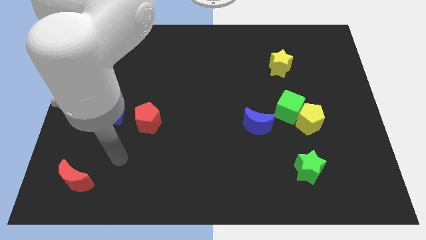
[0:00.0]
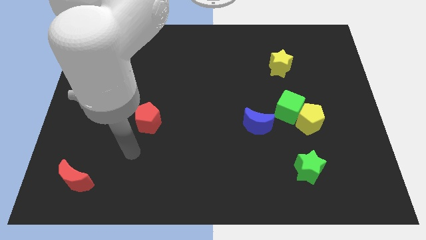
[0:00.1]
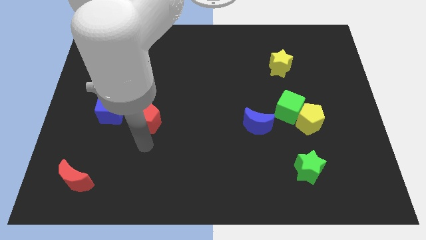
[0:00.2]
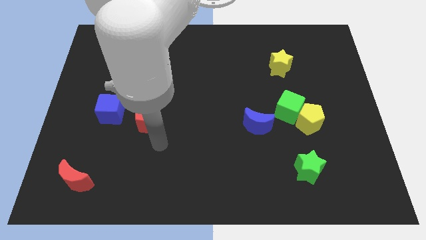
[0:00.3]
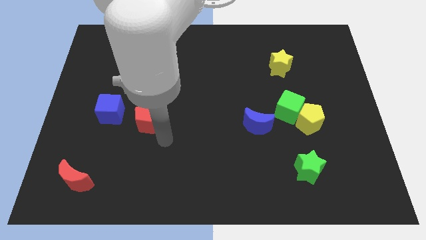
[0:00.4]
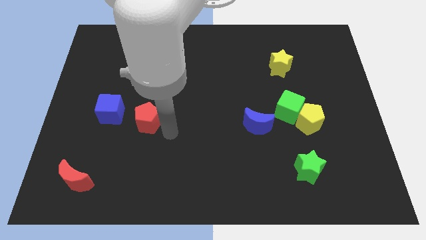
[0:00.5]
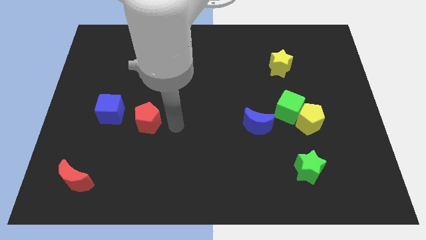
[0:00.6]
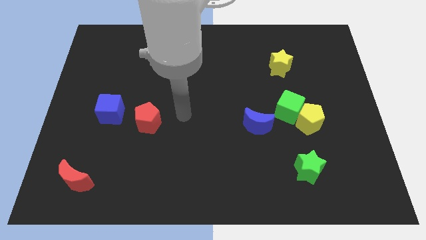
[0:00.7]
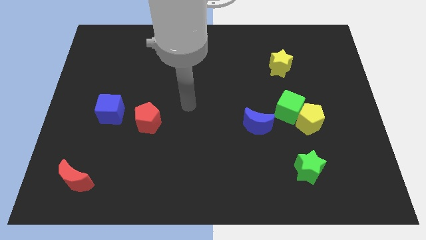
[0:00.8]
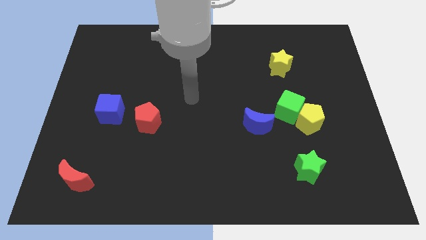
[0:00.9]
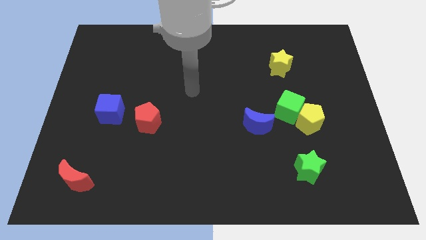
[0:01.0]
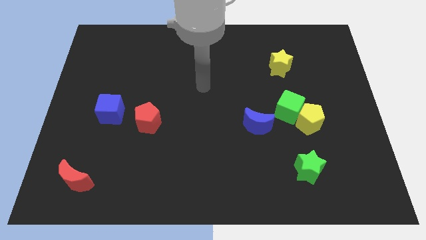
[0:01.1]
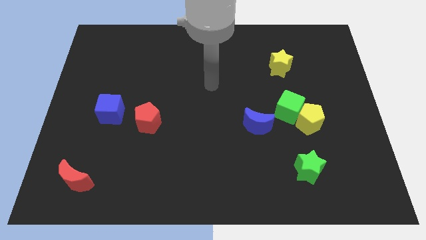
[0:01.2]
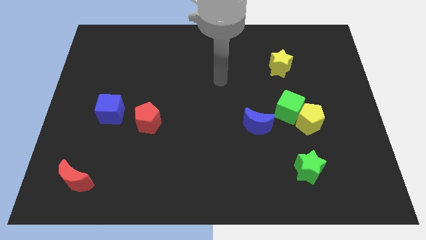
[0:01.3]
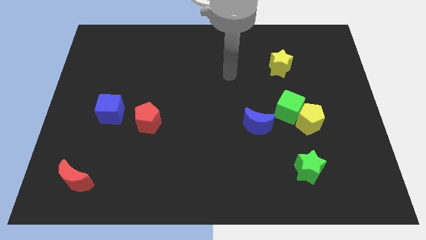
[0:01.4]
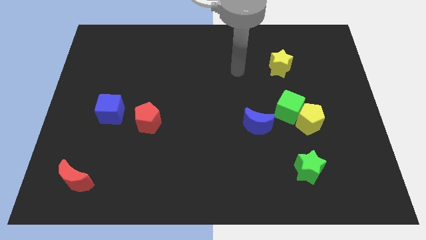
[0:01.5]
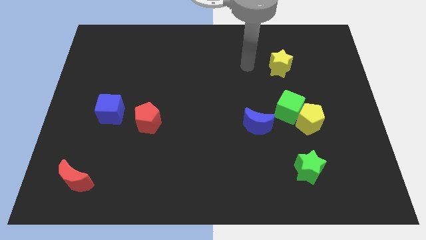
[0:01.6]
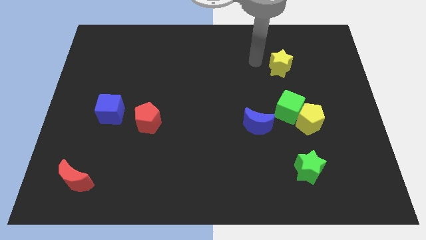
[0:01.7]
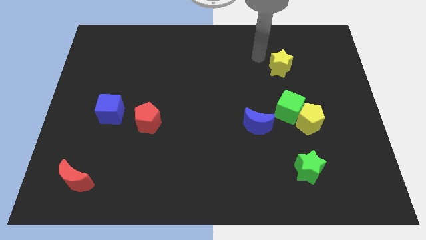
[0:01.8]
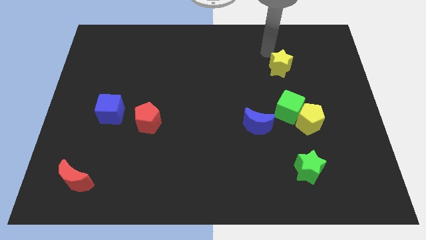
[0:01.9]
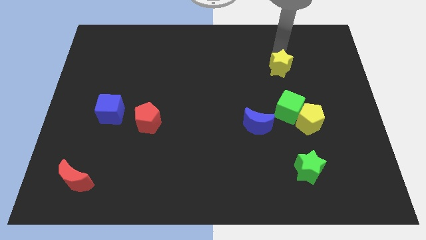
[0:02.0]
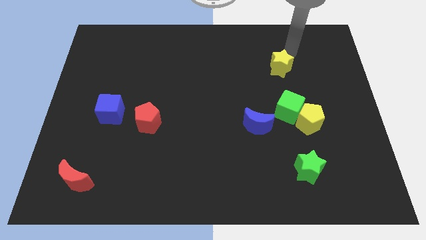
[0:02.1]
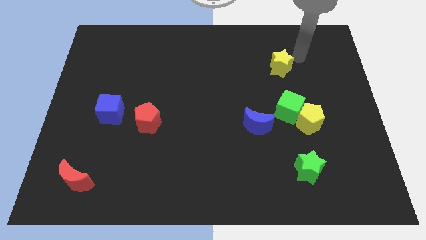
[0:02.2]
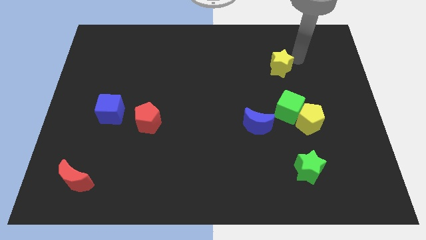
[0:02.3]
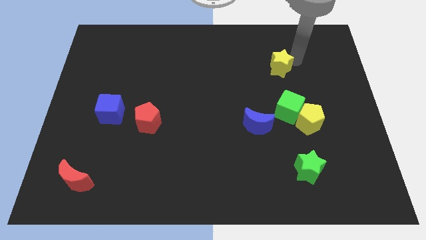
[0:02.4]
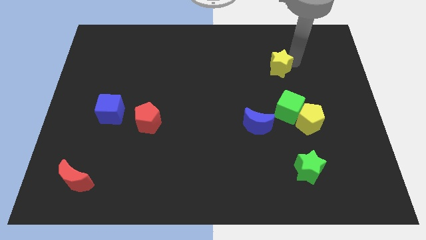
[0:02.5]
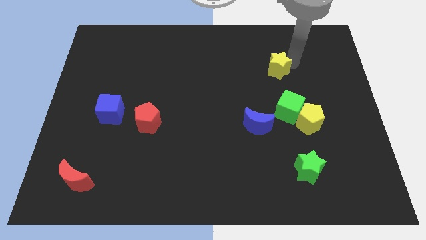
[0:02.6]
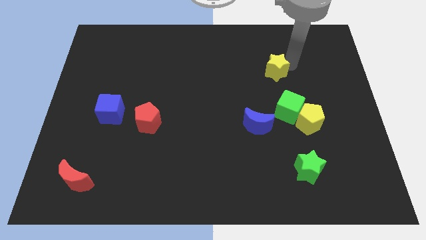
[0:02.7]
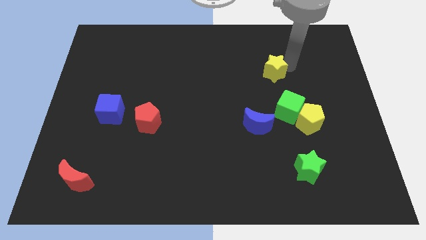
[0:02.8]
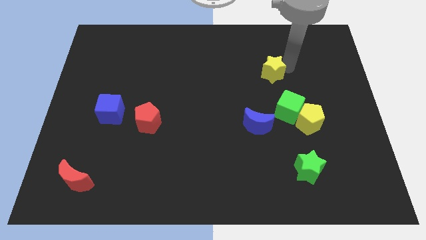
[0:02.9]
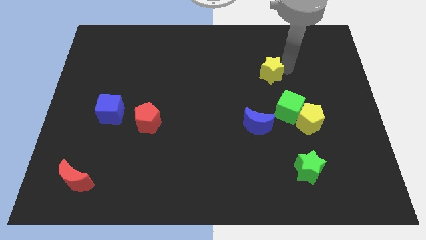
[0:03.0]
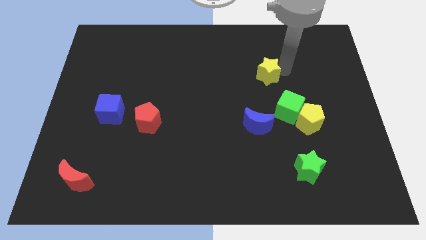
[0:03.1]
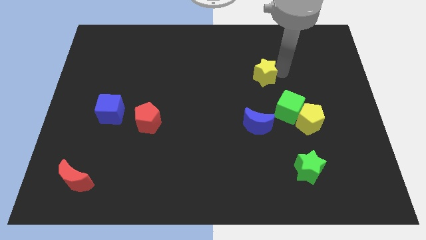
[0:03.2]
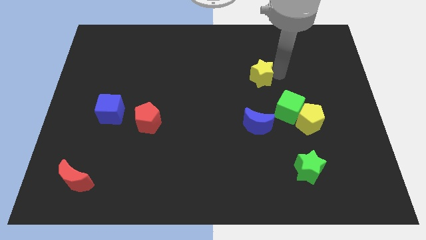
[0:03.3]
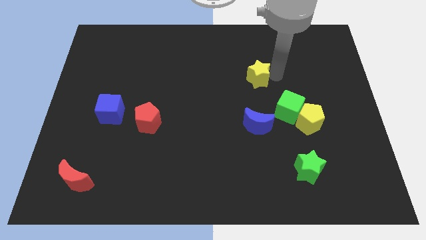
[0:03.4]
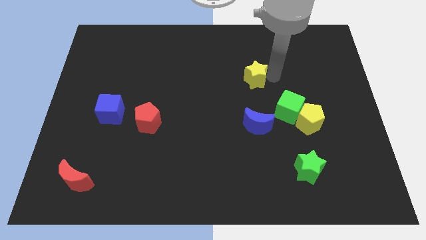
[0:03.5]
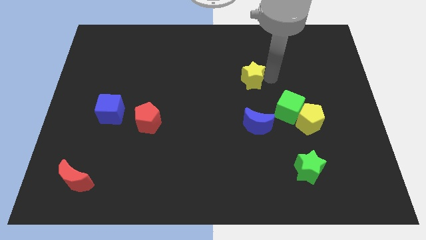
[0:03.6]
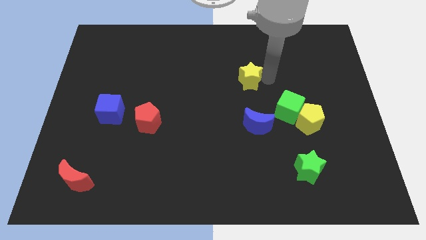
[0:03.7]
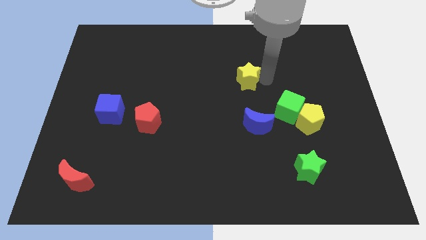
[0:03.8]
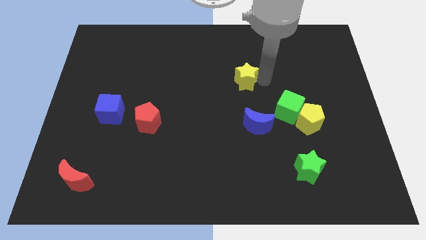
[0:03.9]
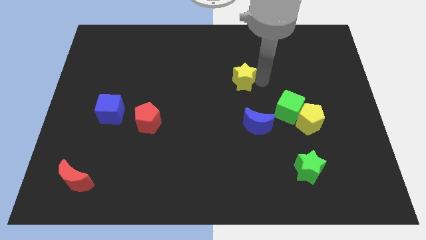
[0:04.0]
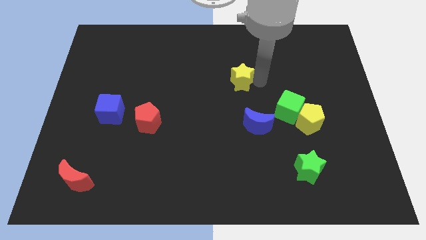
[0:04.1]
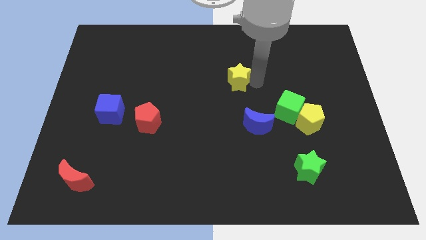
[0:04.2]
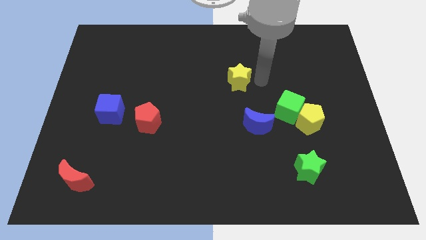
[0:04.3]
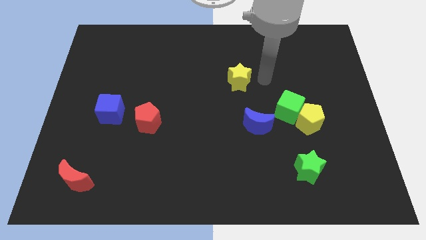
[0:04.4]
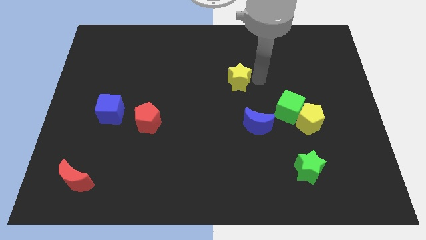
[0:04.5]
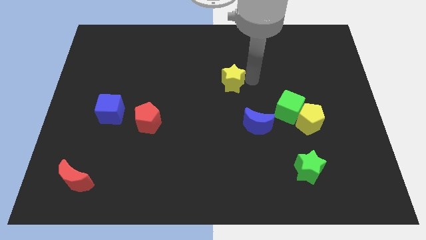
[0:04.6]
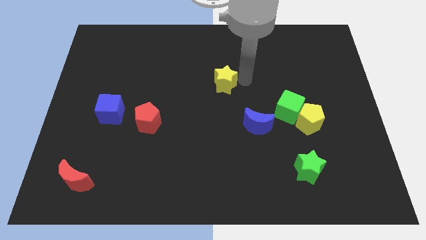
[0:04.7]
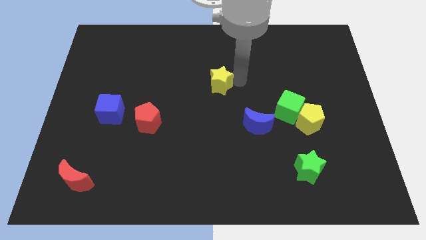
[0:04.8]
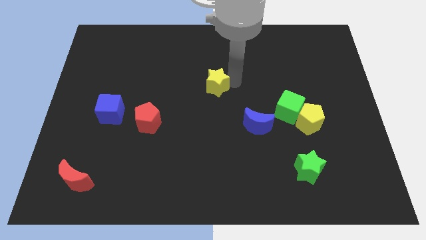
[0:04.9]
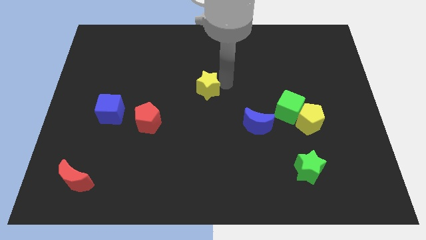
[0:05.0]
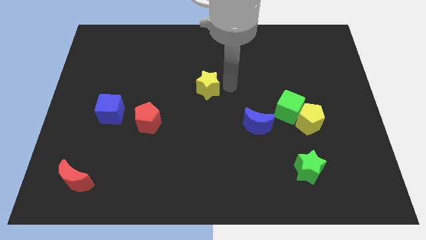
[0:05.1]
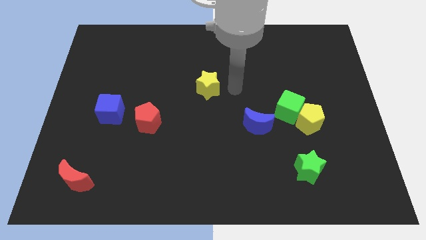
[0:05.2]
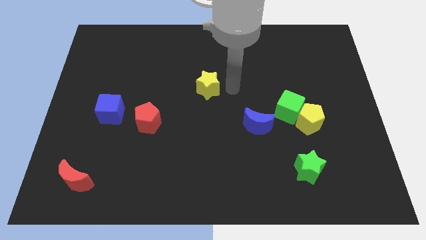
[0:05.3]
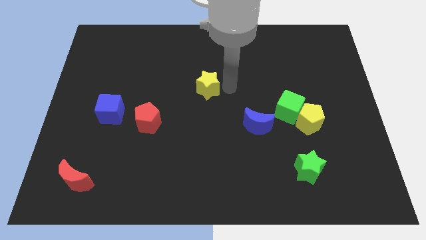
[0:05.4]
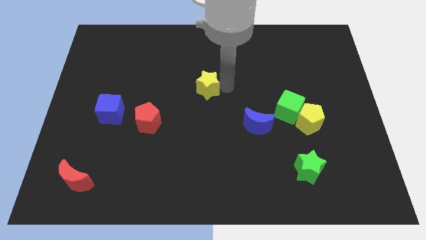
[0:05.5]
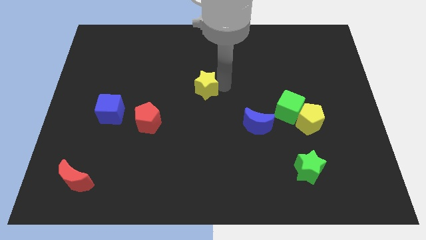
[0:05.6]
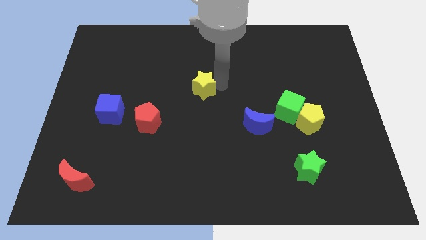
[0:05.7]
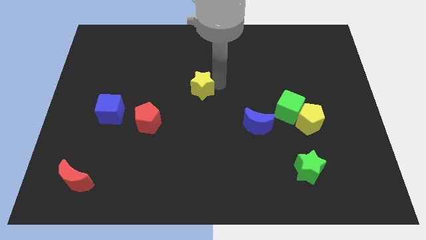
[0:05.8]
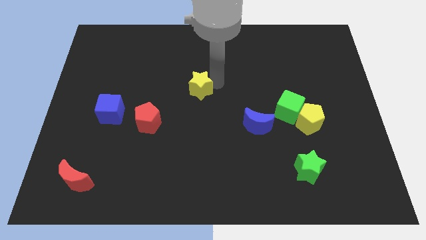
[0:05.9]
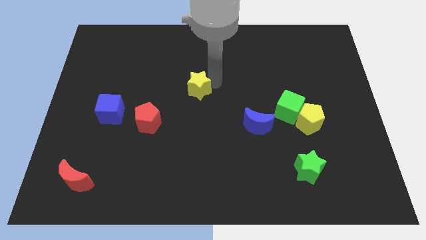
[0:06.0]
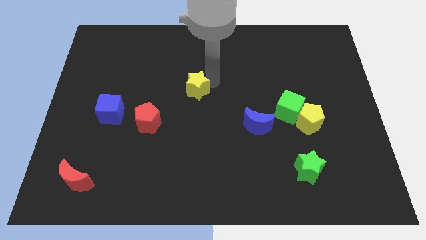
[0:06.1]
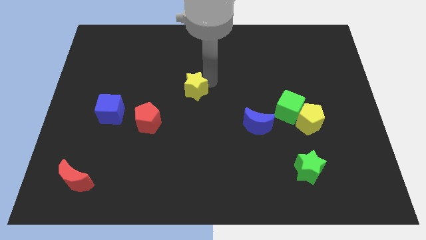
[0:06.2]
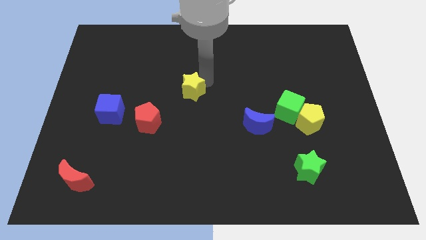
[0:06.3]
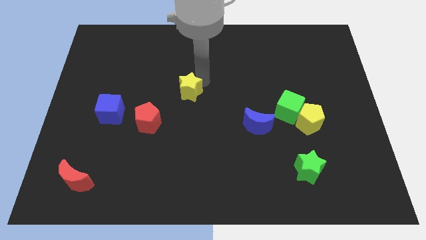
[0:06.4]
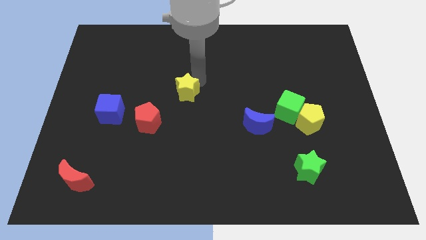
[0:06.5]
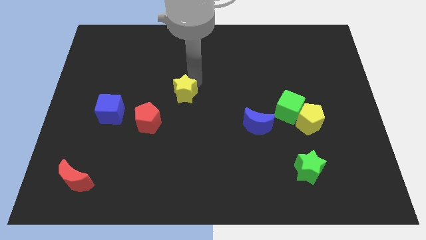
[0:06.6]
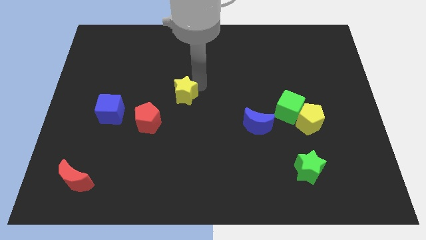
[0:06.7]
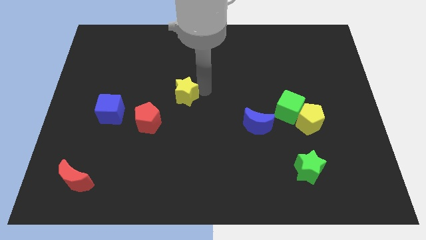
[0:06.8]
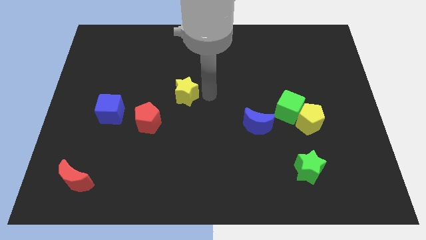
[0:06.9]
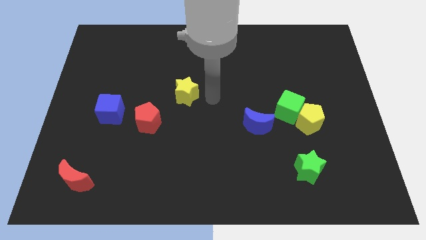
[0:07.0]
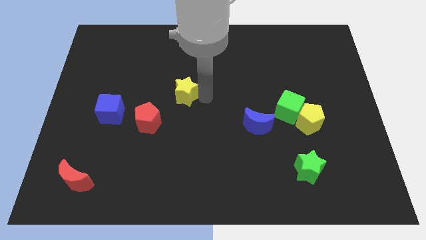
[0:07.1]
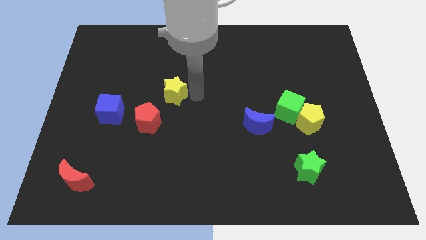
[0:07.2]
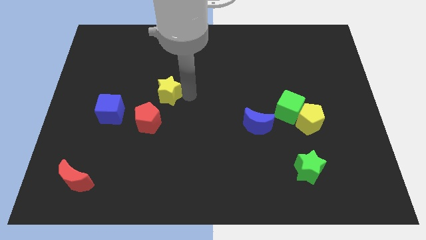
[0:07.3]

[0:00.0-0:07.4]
push the yellow star to the top side of the red pentagon
